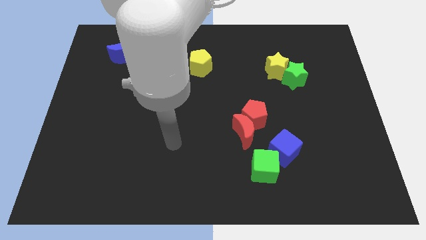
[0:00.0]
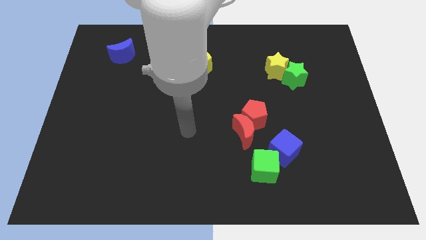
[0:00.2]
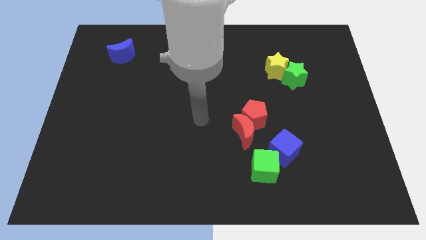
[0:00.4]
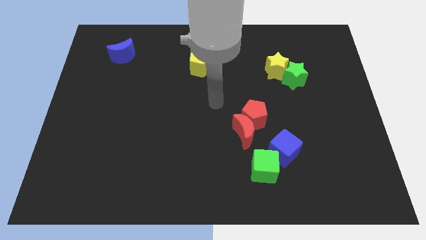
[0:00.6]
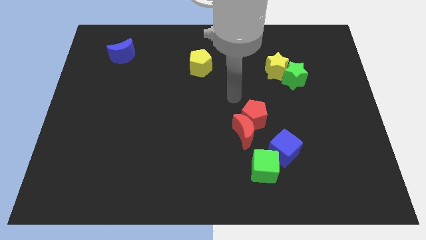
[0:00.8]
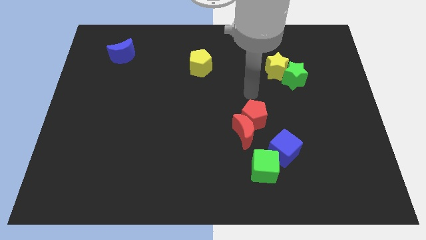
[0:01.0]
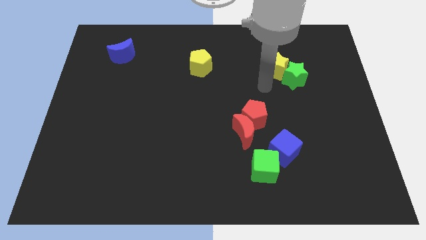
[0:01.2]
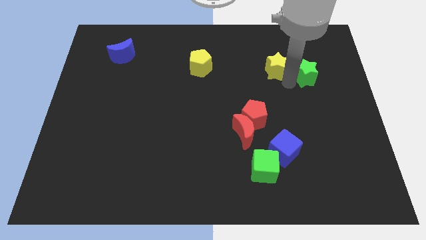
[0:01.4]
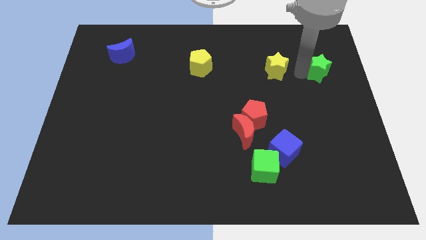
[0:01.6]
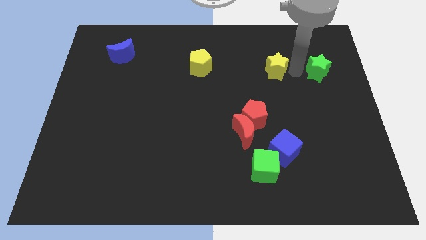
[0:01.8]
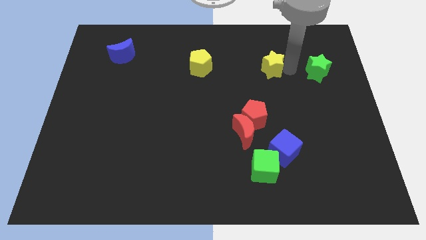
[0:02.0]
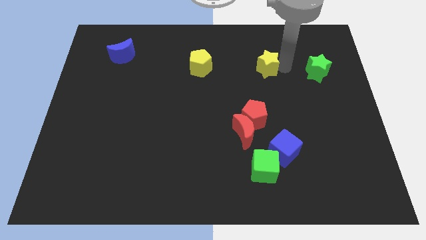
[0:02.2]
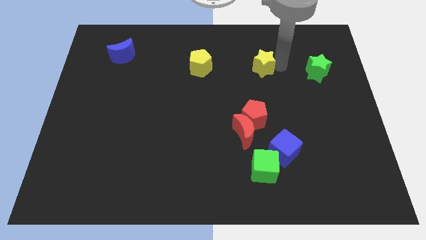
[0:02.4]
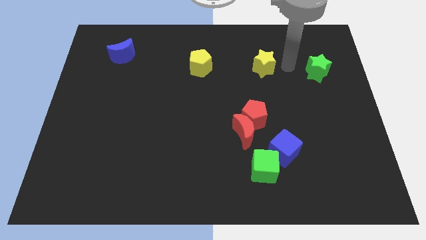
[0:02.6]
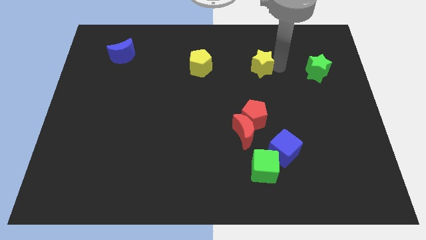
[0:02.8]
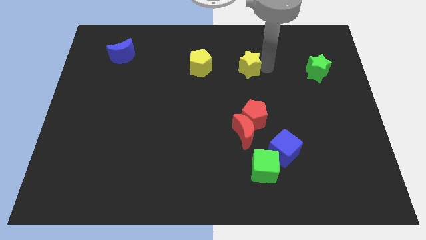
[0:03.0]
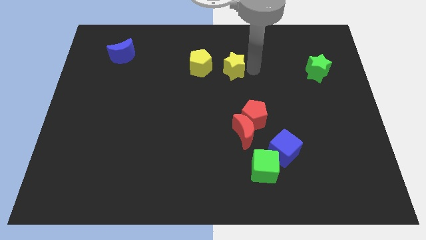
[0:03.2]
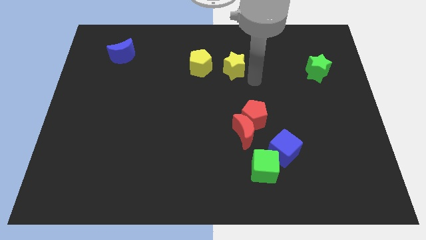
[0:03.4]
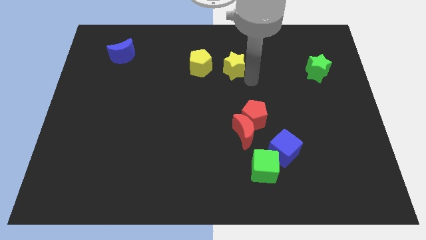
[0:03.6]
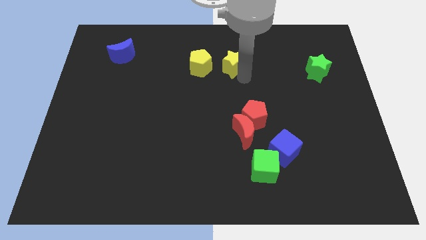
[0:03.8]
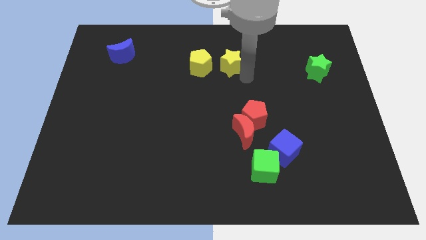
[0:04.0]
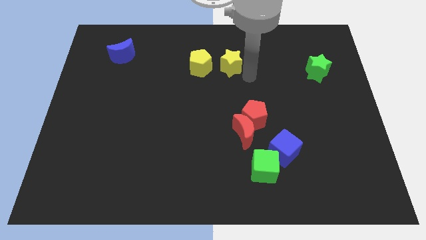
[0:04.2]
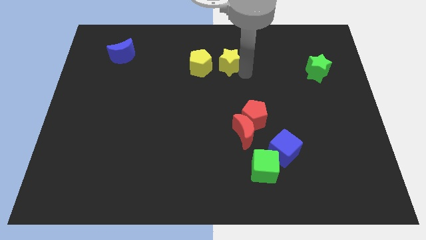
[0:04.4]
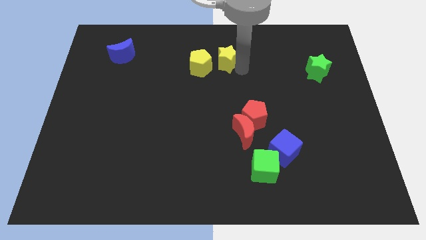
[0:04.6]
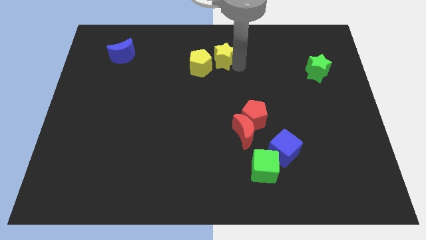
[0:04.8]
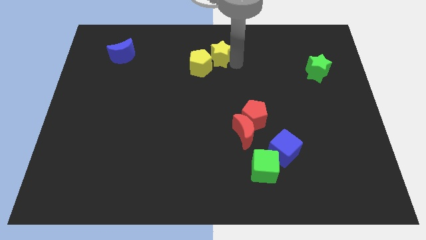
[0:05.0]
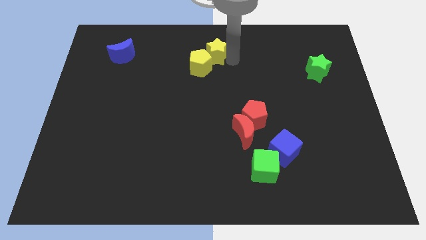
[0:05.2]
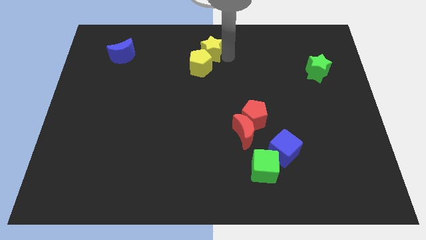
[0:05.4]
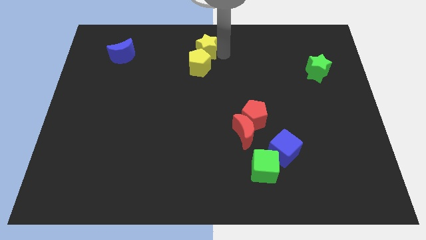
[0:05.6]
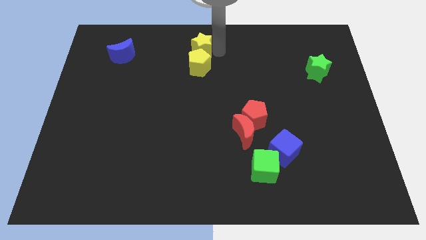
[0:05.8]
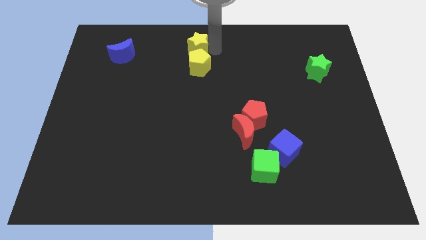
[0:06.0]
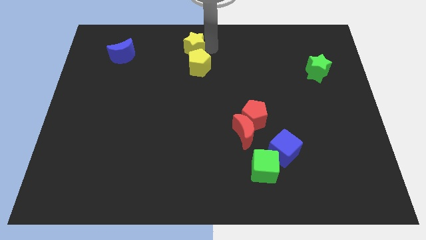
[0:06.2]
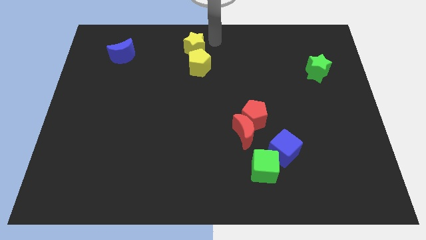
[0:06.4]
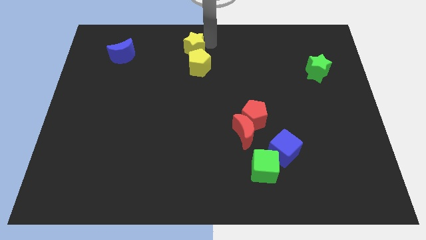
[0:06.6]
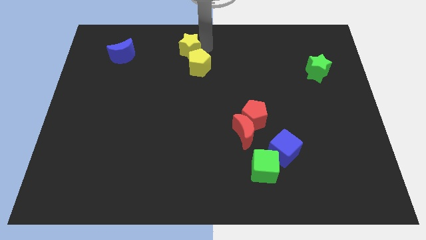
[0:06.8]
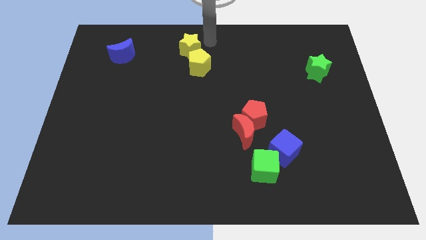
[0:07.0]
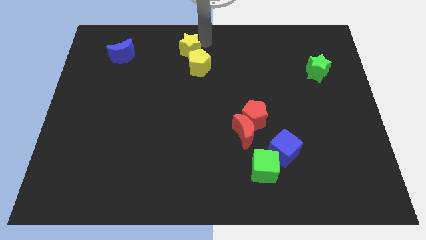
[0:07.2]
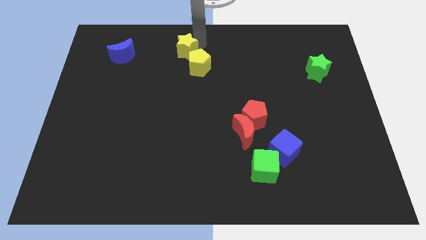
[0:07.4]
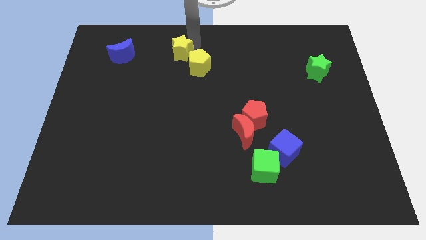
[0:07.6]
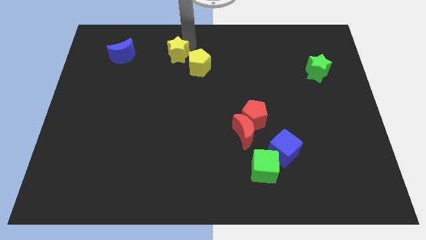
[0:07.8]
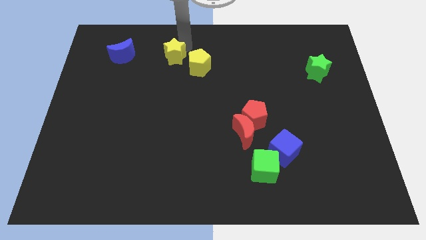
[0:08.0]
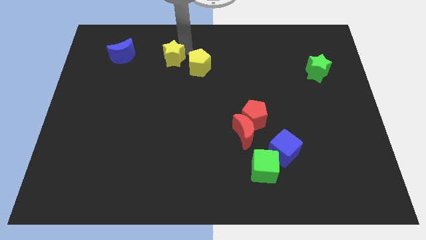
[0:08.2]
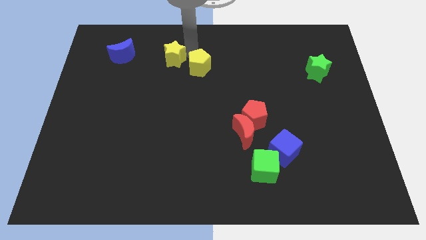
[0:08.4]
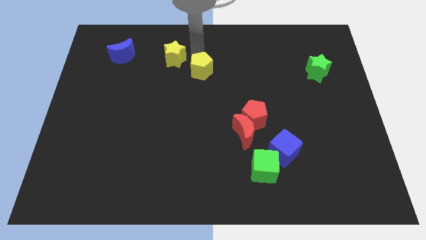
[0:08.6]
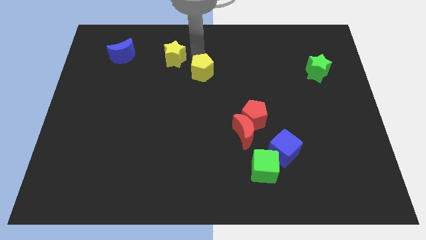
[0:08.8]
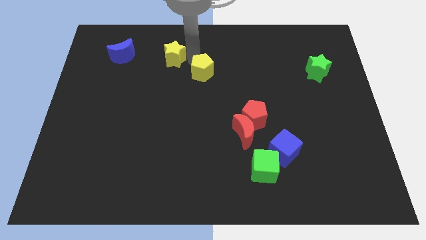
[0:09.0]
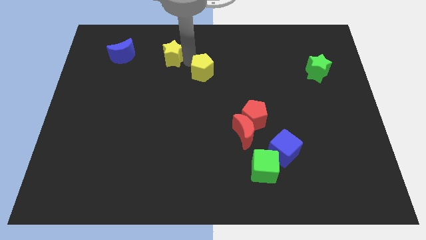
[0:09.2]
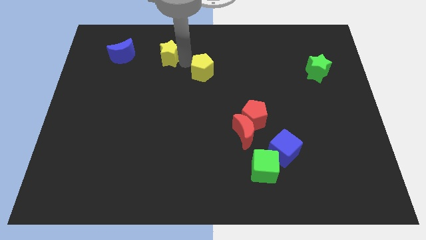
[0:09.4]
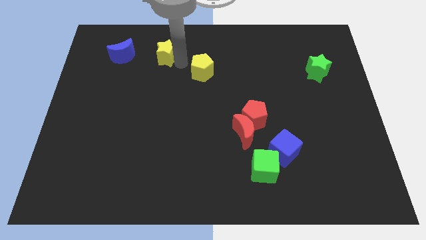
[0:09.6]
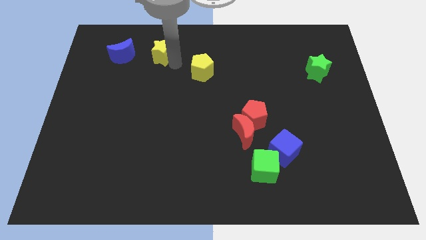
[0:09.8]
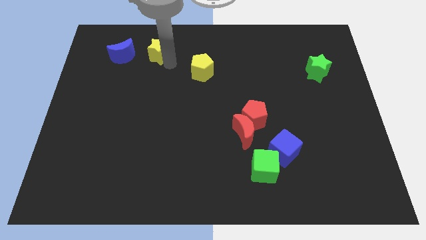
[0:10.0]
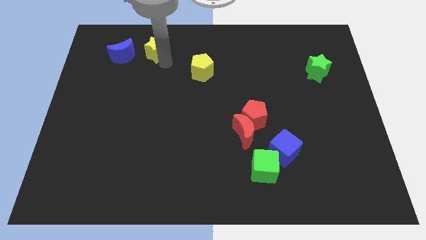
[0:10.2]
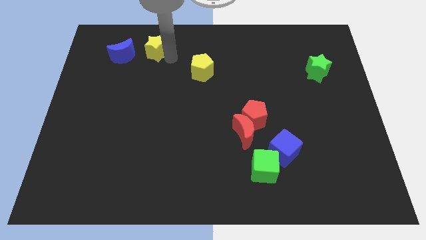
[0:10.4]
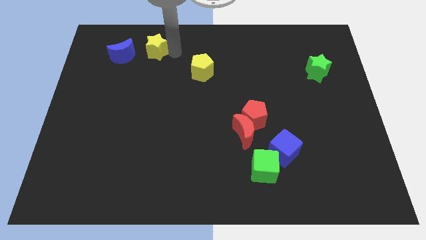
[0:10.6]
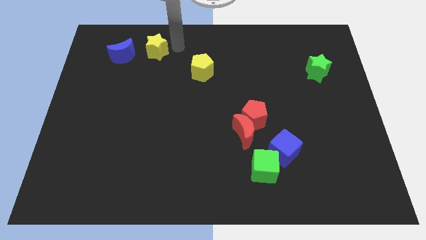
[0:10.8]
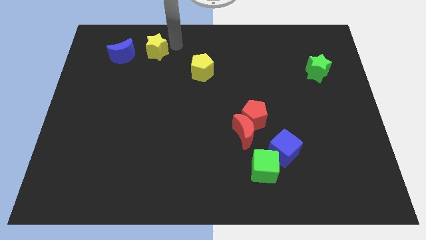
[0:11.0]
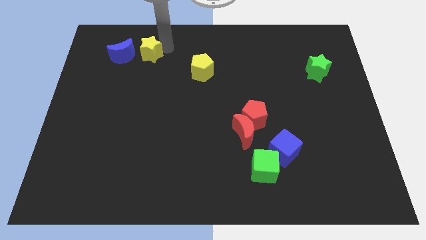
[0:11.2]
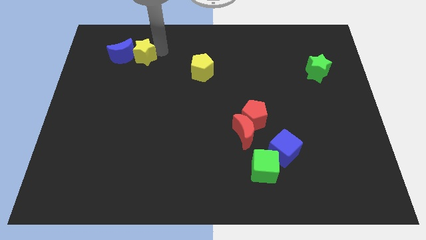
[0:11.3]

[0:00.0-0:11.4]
push the yellow star to the blue moon

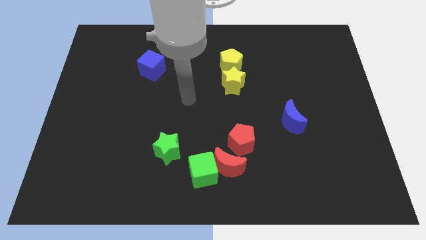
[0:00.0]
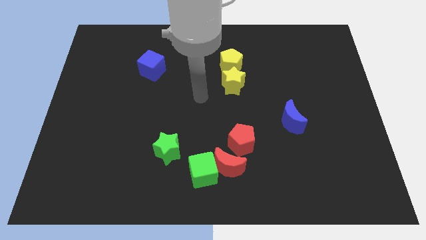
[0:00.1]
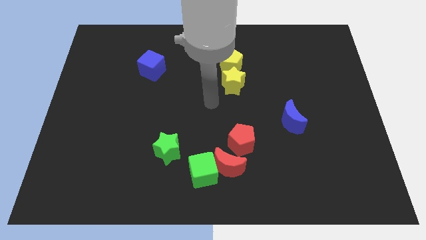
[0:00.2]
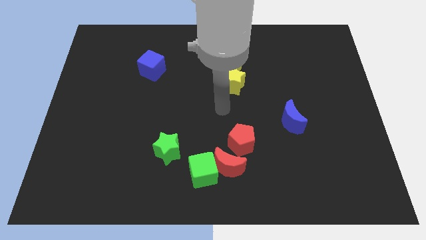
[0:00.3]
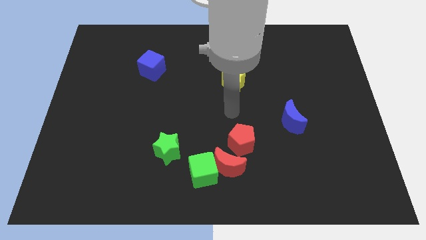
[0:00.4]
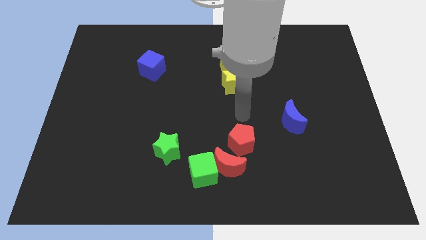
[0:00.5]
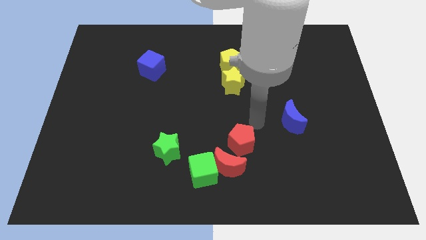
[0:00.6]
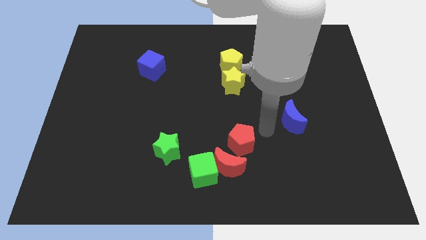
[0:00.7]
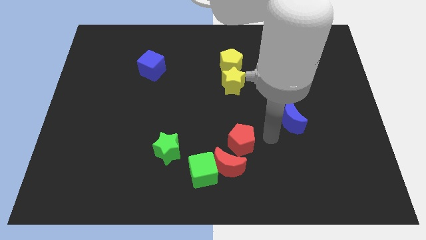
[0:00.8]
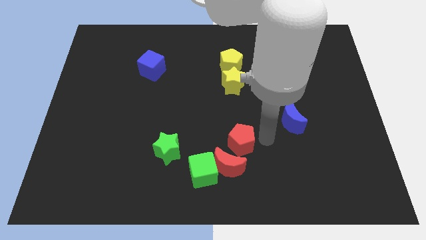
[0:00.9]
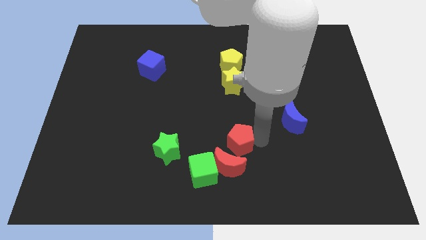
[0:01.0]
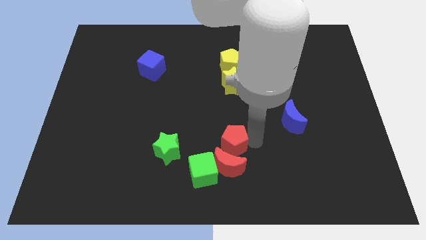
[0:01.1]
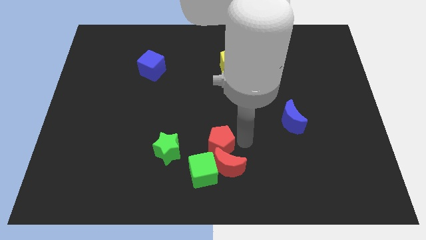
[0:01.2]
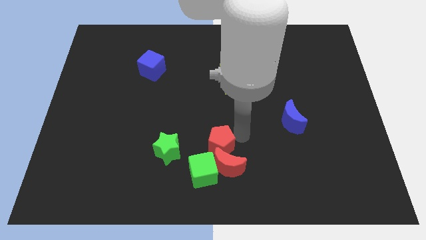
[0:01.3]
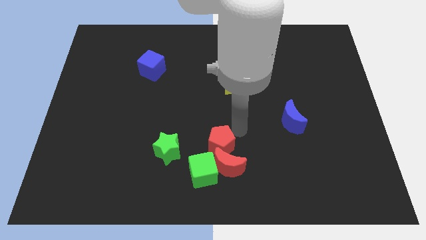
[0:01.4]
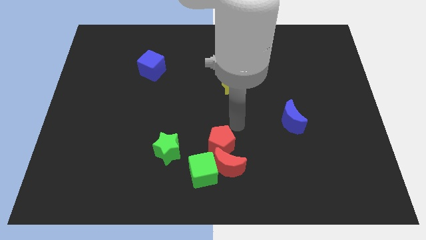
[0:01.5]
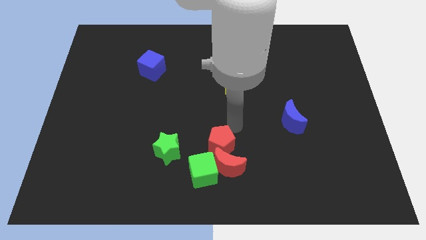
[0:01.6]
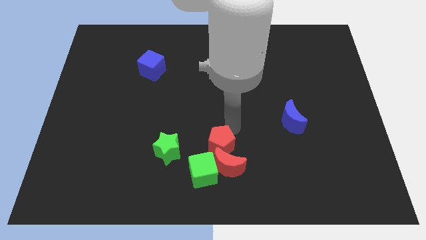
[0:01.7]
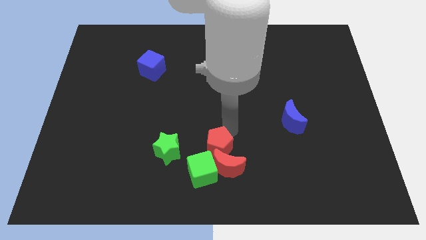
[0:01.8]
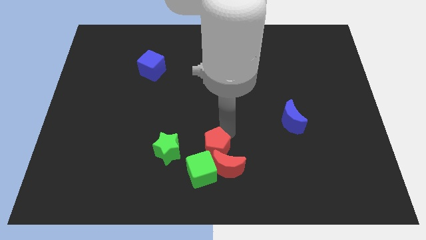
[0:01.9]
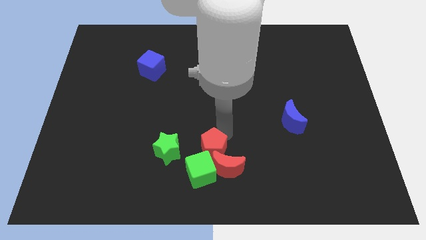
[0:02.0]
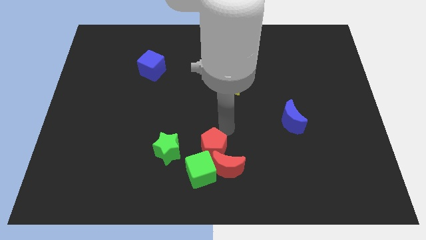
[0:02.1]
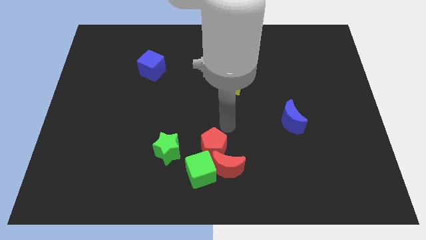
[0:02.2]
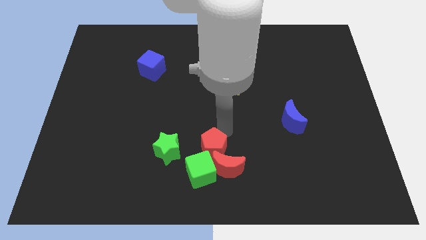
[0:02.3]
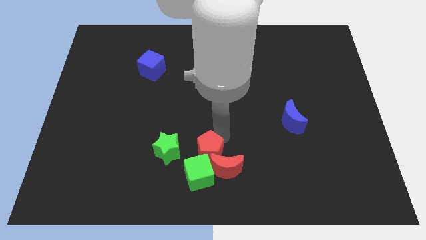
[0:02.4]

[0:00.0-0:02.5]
slide the red pentagon next to the green cube
